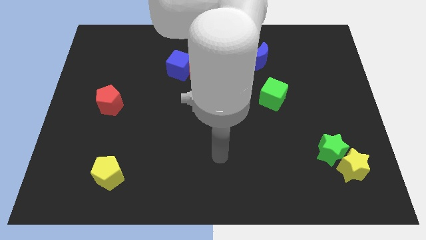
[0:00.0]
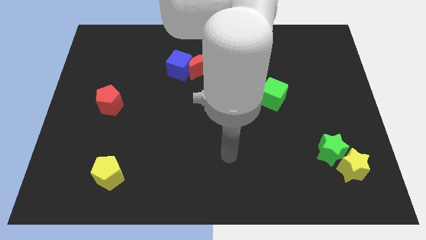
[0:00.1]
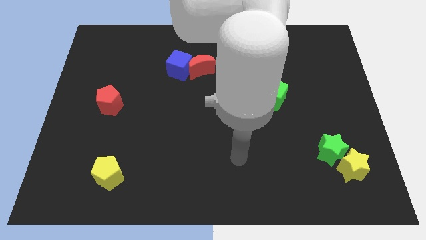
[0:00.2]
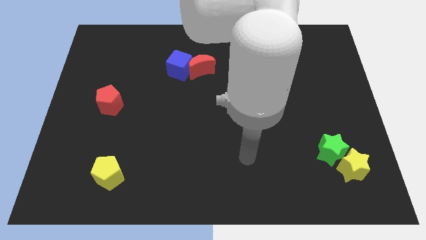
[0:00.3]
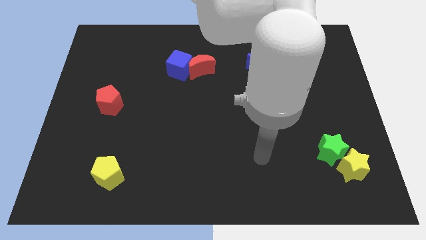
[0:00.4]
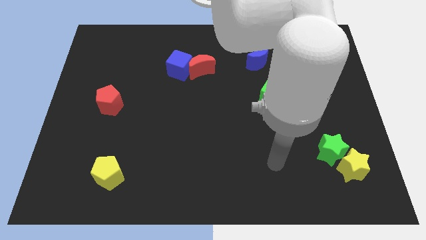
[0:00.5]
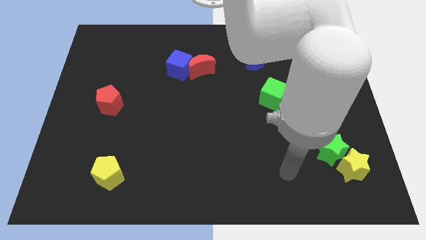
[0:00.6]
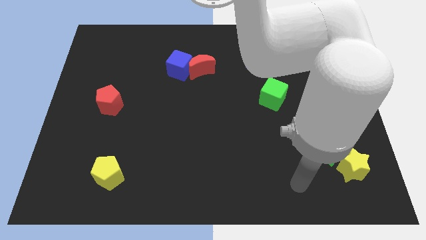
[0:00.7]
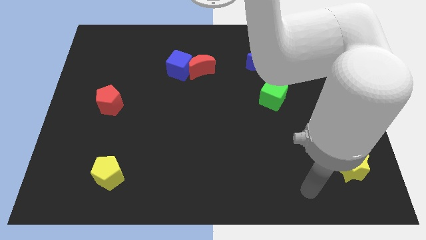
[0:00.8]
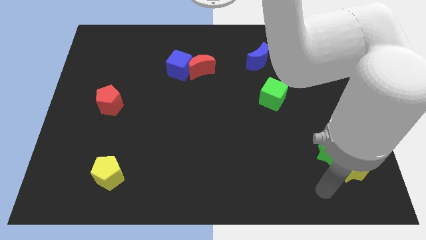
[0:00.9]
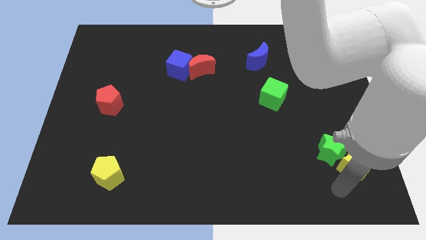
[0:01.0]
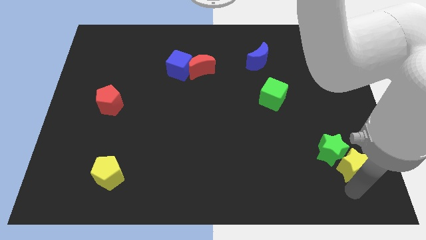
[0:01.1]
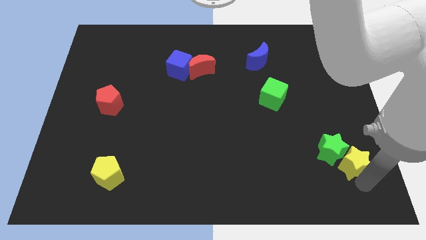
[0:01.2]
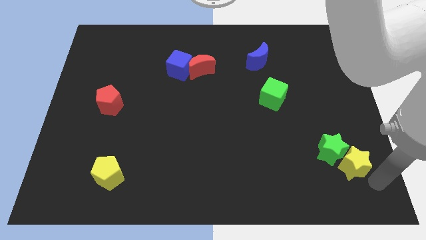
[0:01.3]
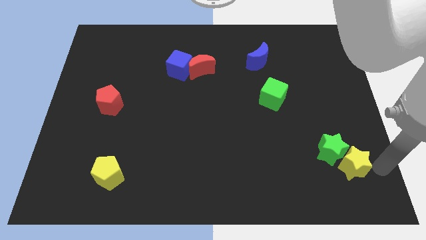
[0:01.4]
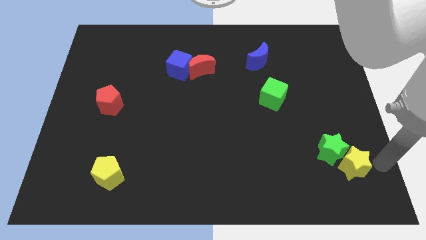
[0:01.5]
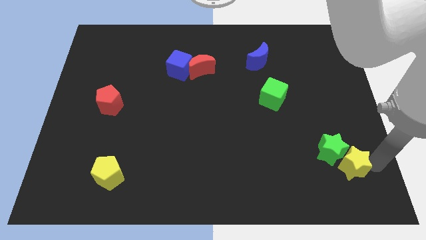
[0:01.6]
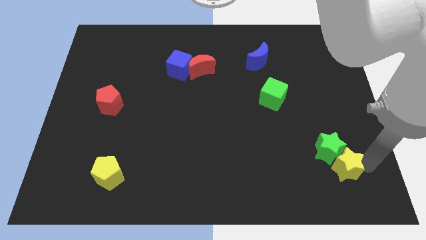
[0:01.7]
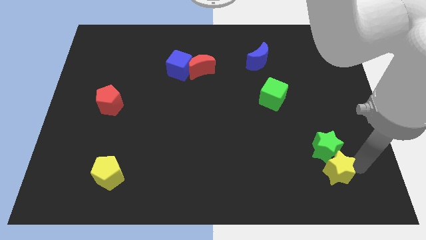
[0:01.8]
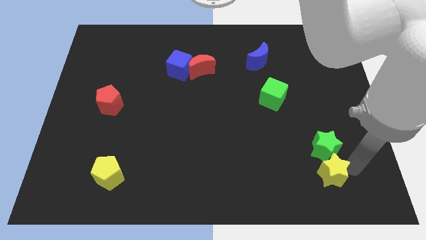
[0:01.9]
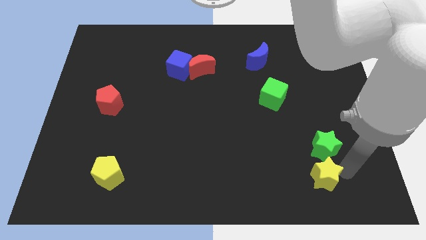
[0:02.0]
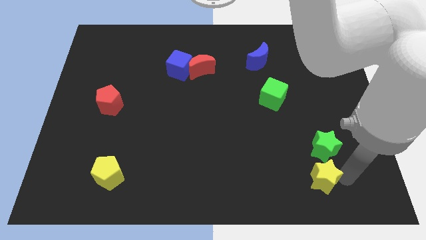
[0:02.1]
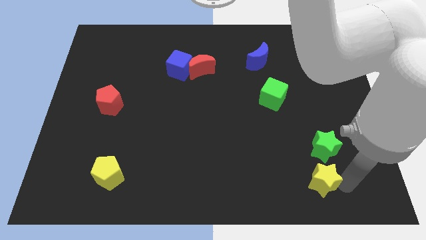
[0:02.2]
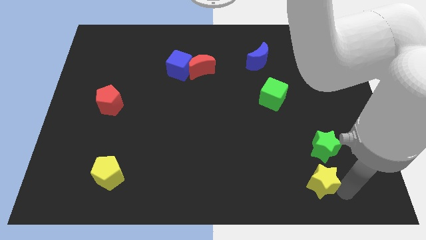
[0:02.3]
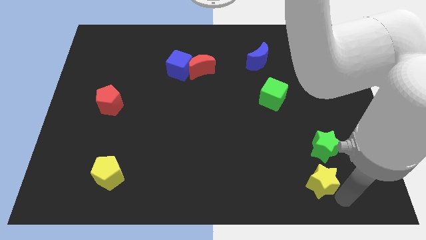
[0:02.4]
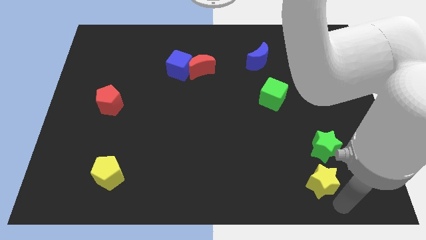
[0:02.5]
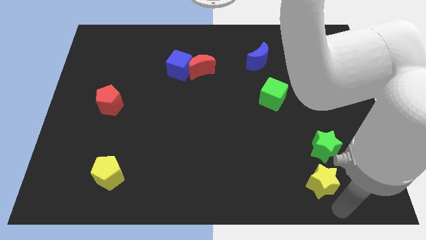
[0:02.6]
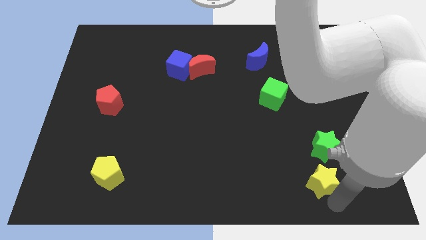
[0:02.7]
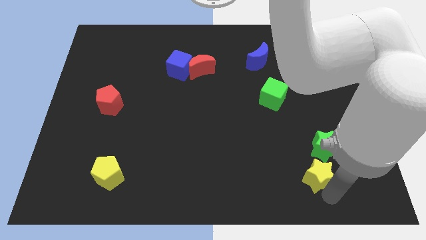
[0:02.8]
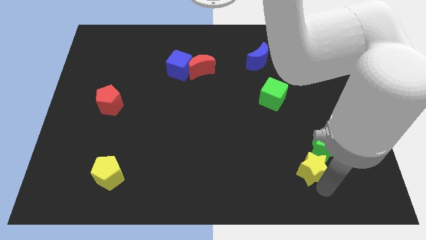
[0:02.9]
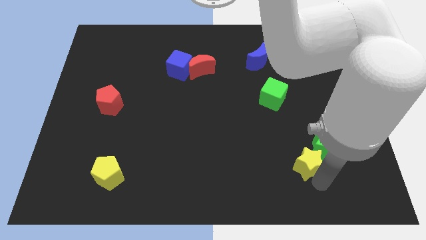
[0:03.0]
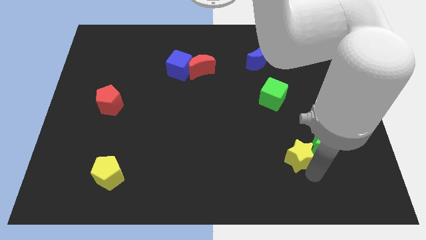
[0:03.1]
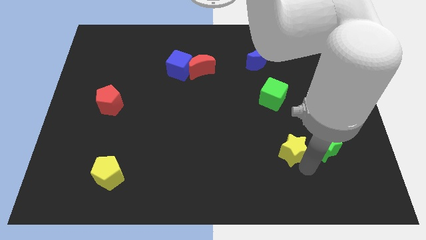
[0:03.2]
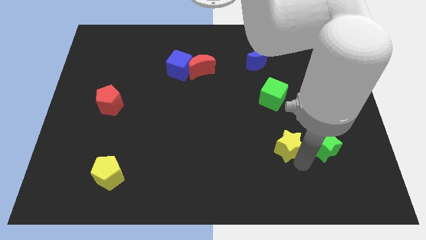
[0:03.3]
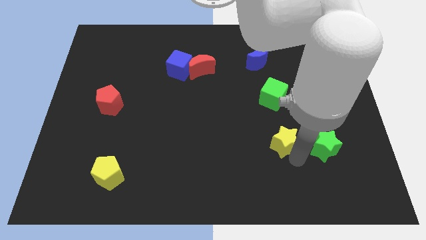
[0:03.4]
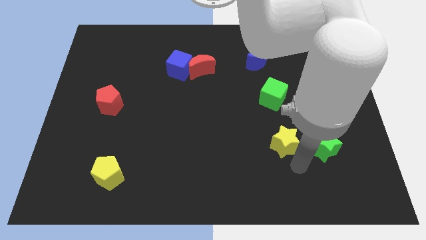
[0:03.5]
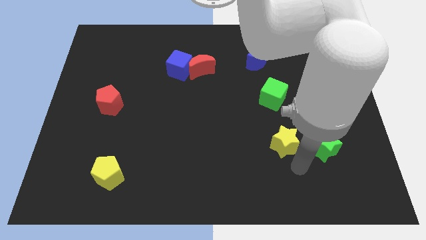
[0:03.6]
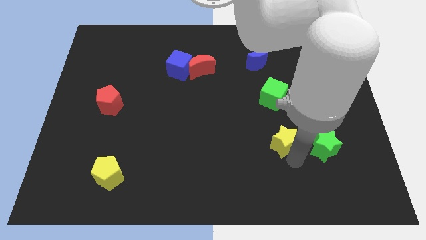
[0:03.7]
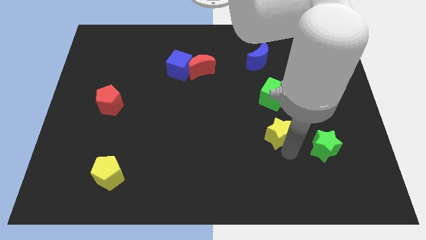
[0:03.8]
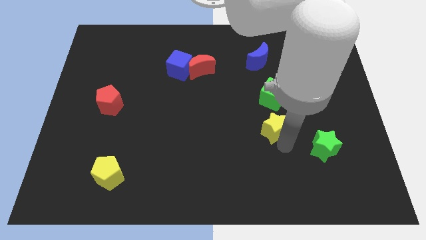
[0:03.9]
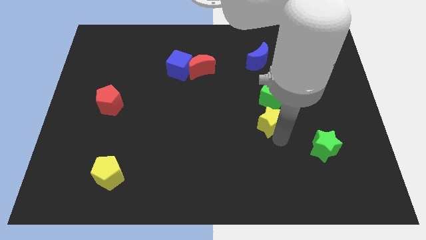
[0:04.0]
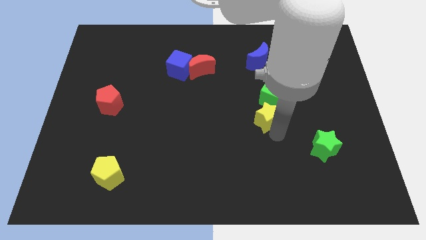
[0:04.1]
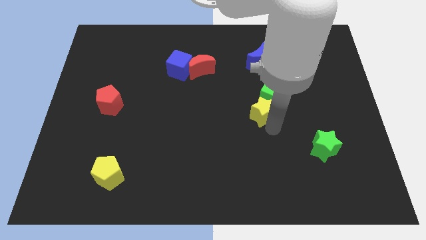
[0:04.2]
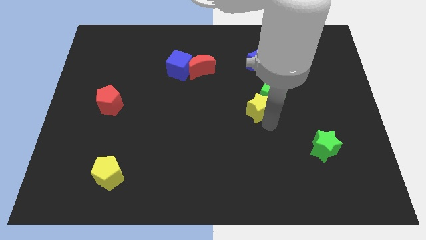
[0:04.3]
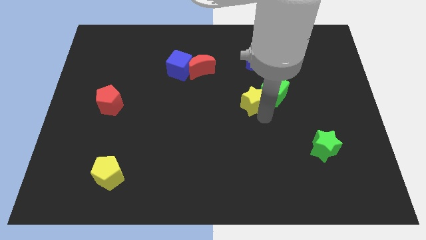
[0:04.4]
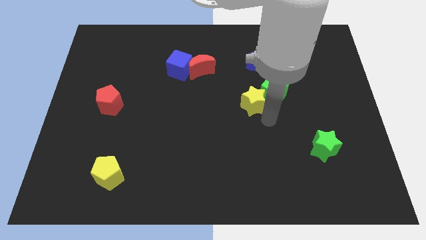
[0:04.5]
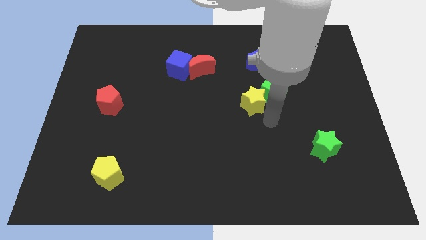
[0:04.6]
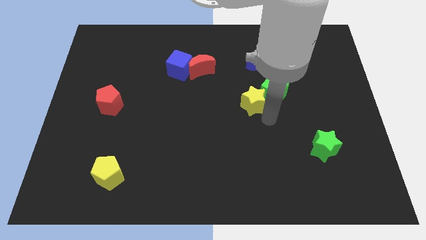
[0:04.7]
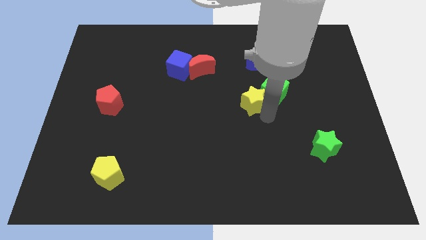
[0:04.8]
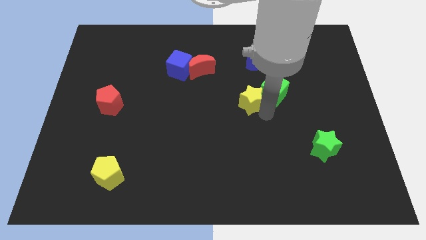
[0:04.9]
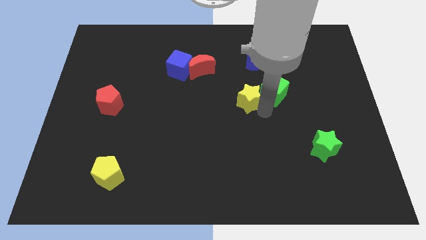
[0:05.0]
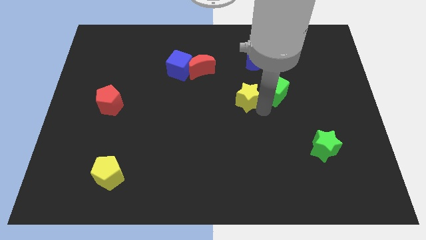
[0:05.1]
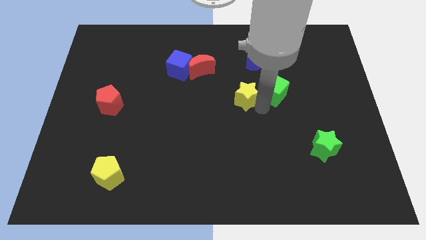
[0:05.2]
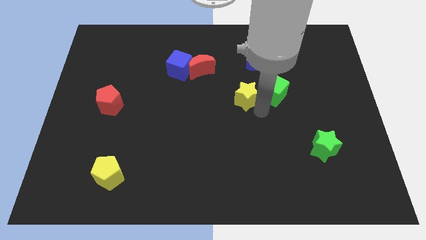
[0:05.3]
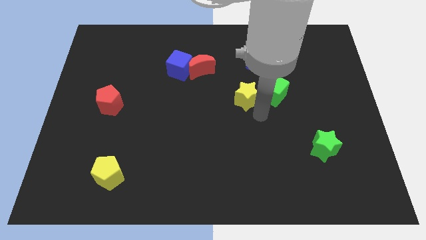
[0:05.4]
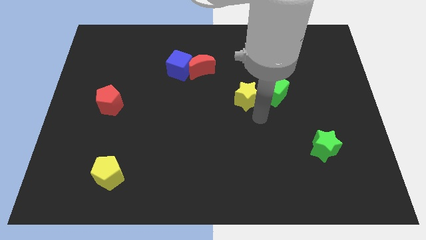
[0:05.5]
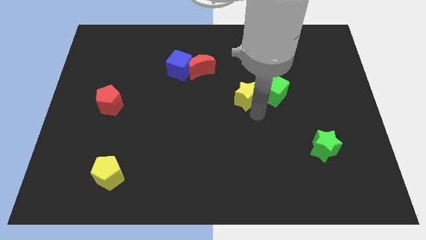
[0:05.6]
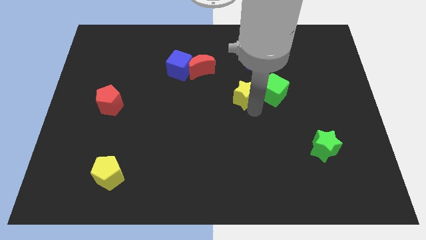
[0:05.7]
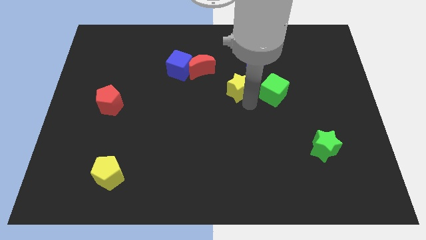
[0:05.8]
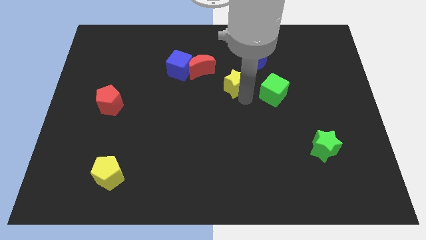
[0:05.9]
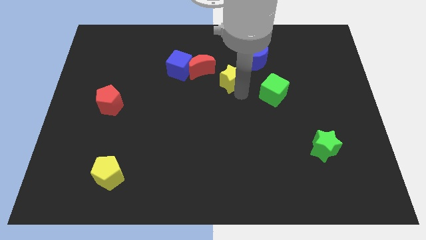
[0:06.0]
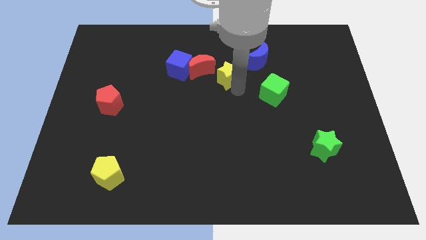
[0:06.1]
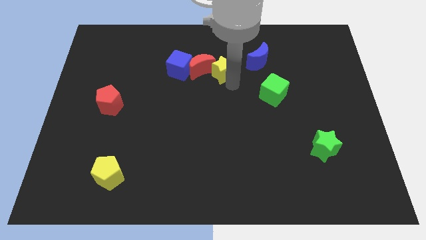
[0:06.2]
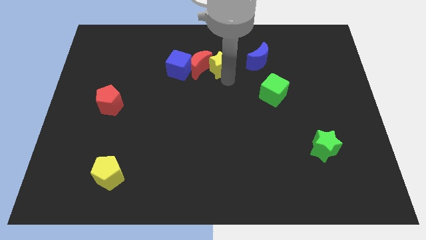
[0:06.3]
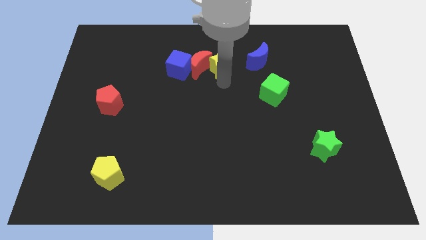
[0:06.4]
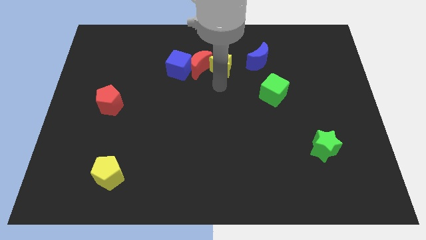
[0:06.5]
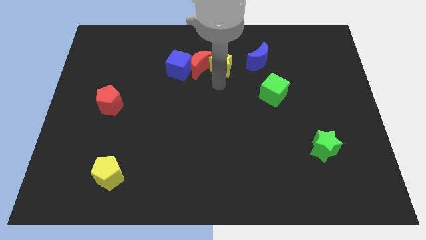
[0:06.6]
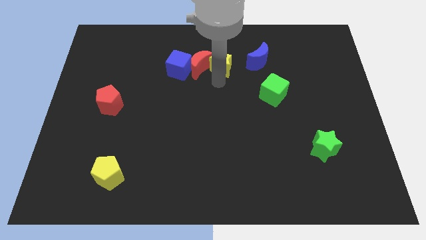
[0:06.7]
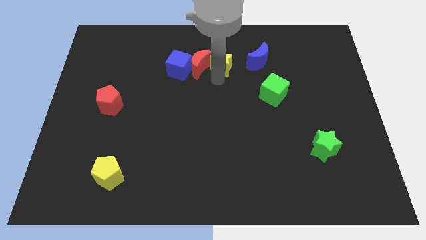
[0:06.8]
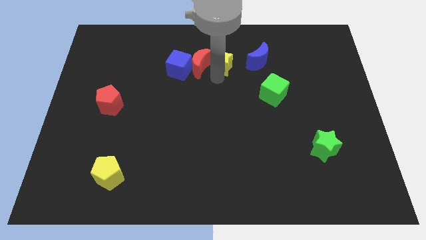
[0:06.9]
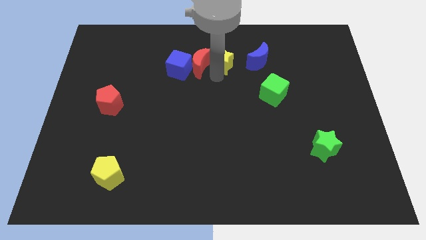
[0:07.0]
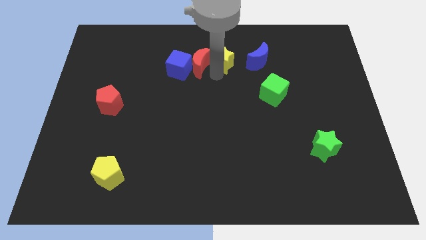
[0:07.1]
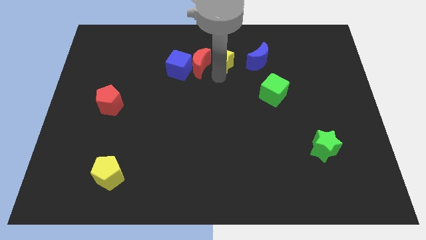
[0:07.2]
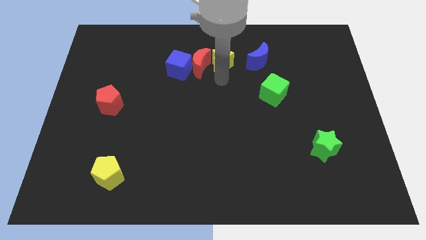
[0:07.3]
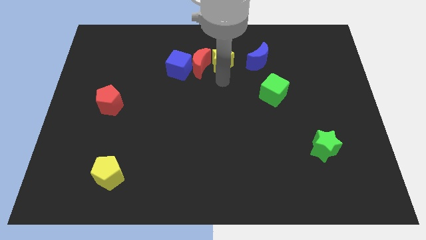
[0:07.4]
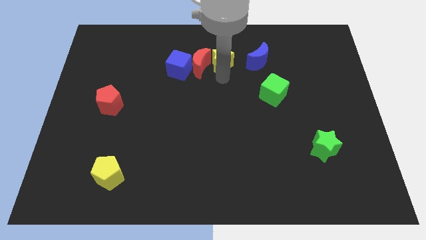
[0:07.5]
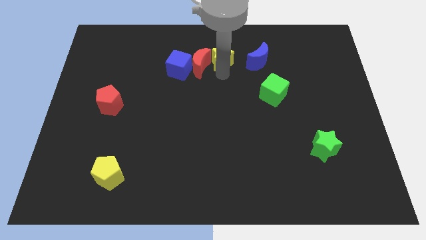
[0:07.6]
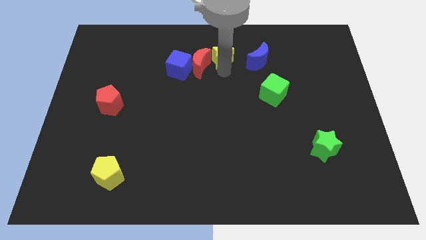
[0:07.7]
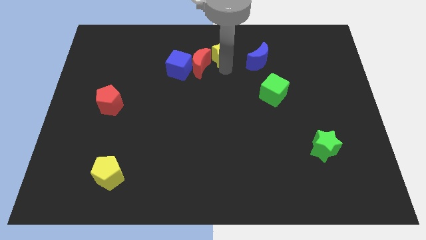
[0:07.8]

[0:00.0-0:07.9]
slide the yellow star to the top
